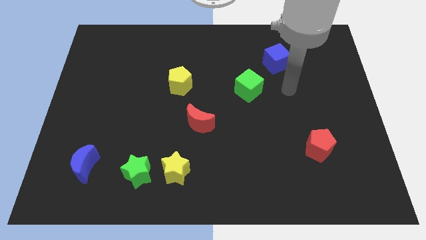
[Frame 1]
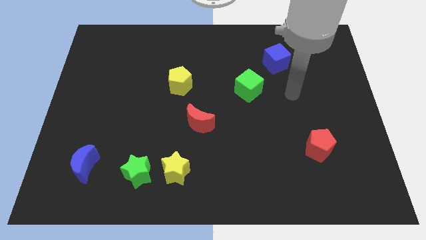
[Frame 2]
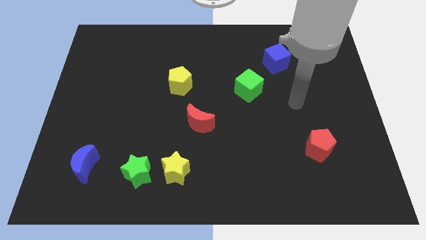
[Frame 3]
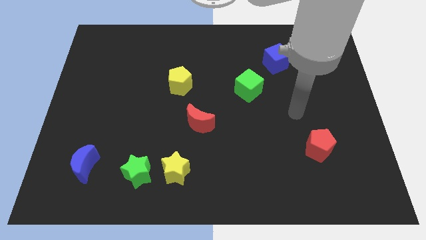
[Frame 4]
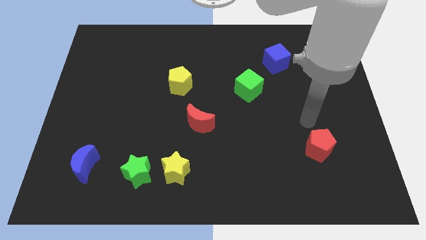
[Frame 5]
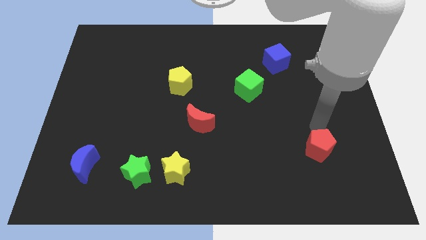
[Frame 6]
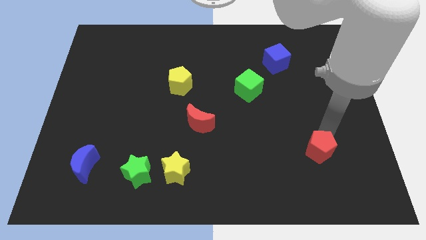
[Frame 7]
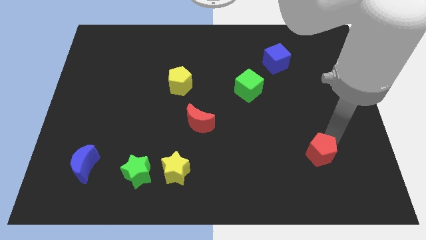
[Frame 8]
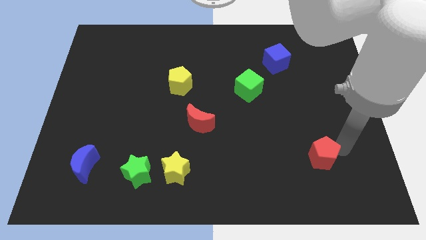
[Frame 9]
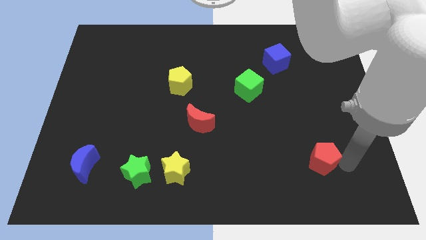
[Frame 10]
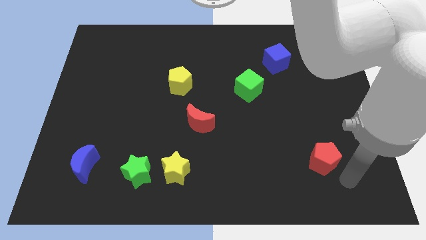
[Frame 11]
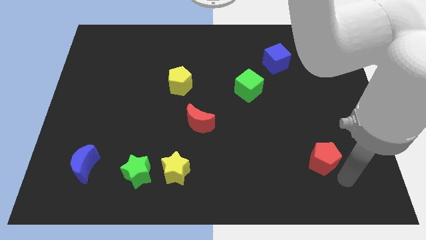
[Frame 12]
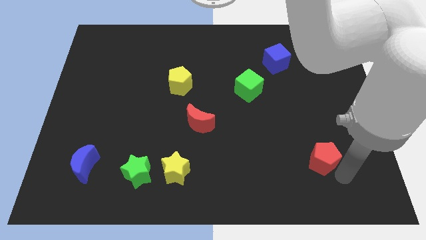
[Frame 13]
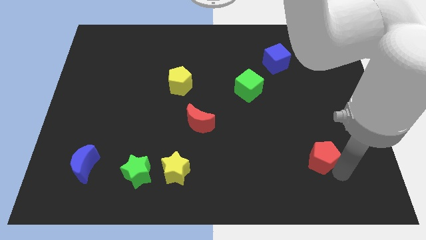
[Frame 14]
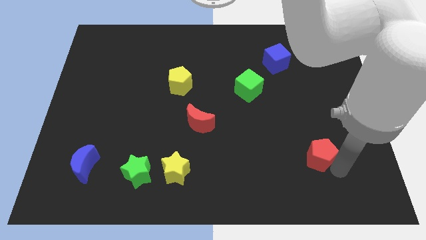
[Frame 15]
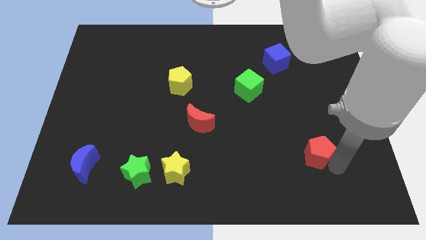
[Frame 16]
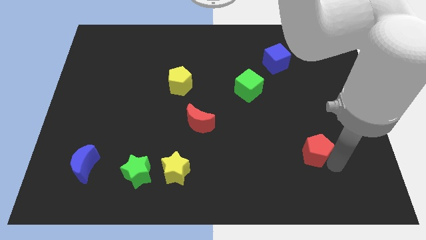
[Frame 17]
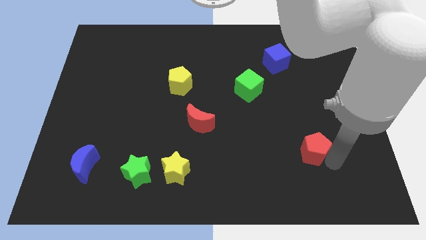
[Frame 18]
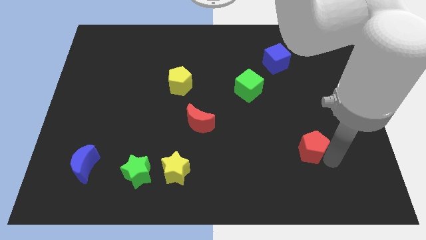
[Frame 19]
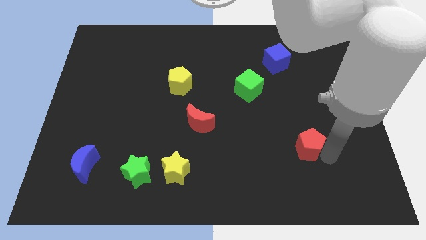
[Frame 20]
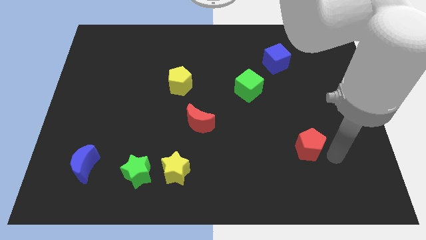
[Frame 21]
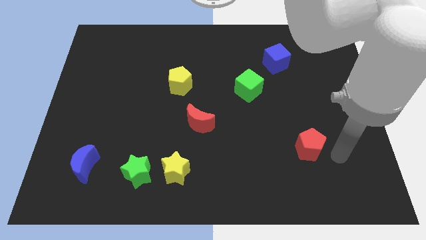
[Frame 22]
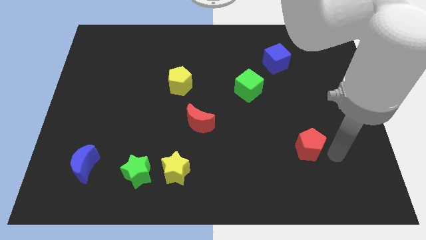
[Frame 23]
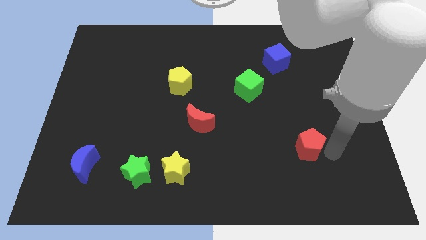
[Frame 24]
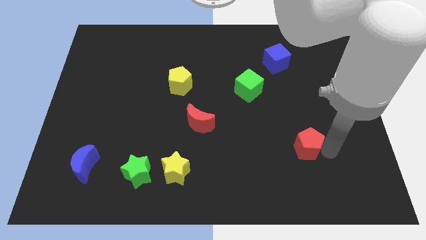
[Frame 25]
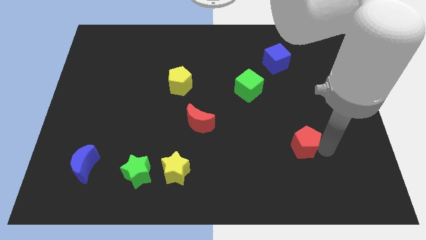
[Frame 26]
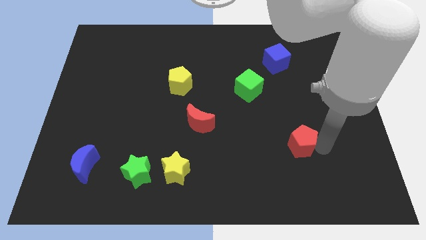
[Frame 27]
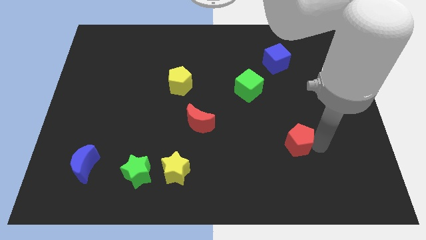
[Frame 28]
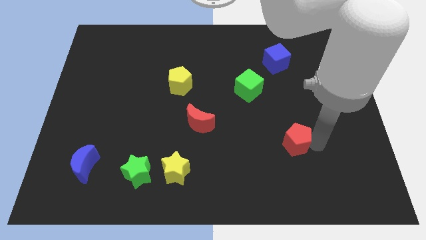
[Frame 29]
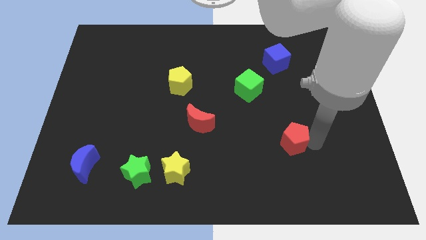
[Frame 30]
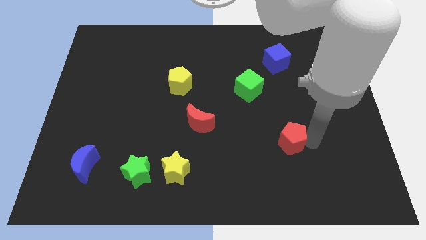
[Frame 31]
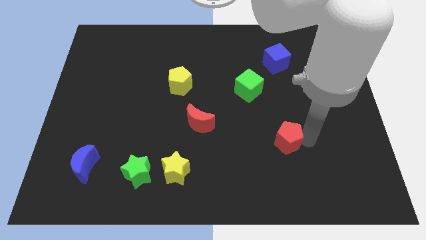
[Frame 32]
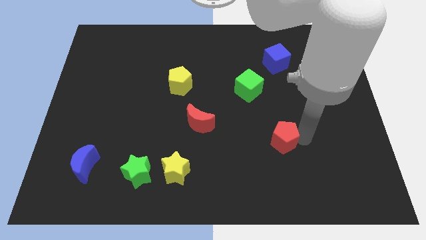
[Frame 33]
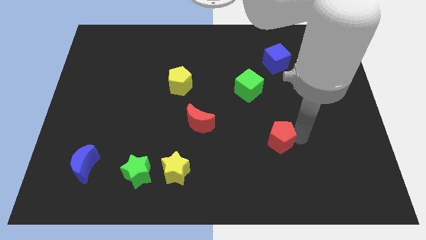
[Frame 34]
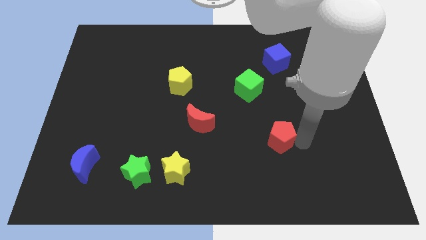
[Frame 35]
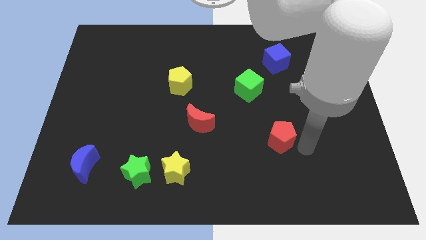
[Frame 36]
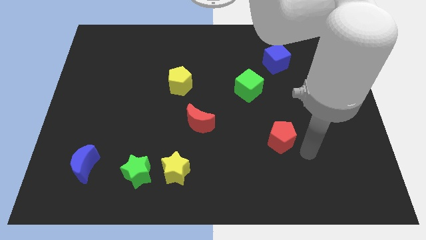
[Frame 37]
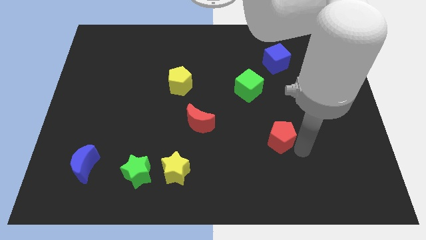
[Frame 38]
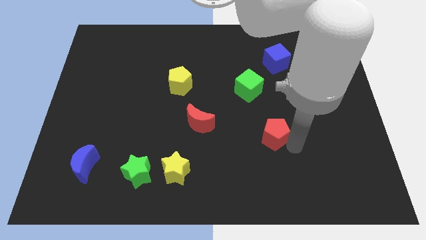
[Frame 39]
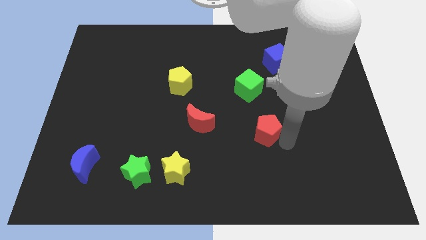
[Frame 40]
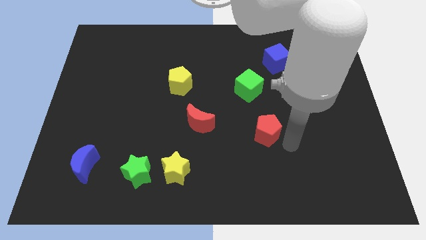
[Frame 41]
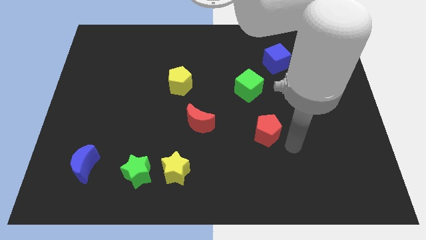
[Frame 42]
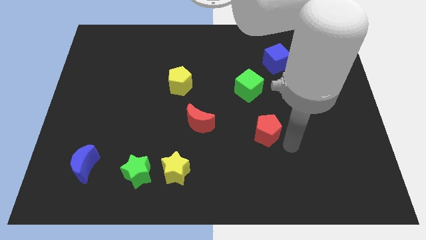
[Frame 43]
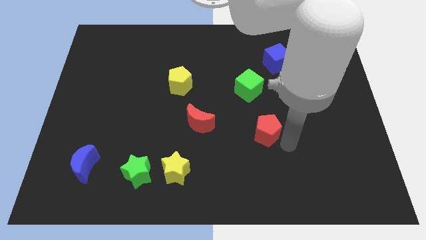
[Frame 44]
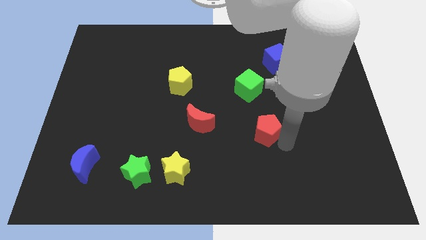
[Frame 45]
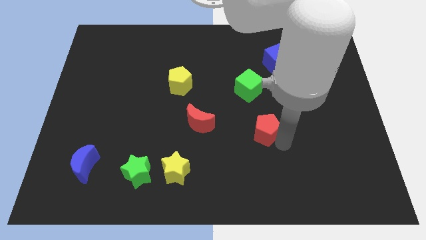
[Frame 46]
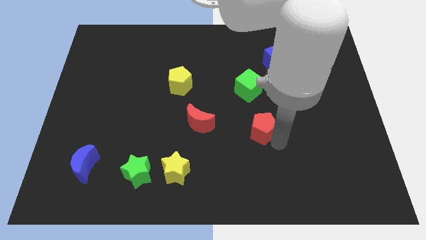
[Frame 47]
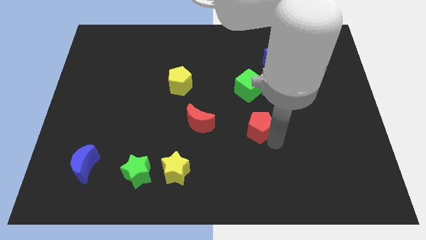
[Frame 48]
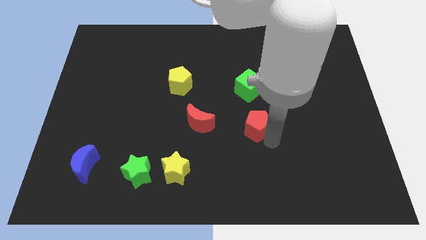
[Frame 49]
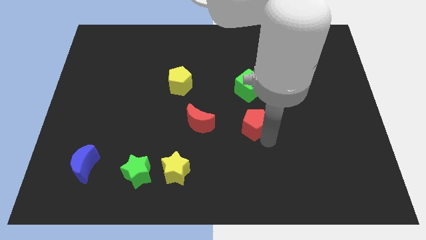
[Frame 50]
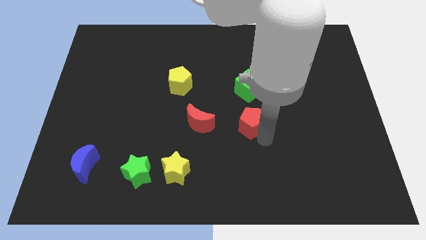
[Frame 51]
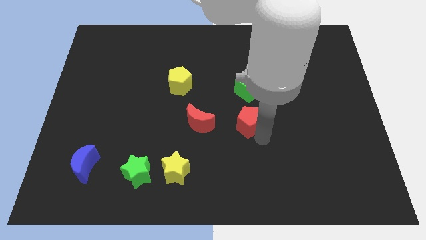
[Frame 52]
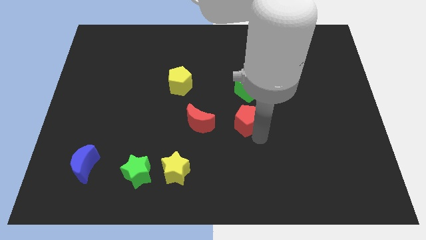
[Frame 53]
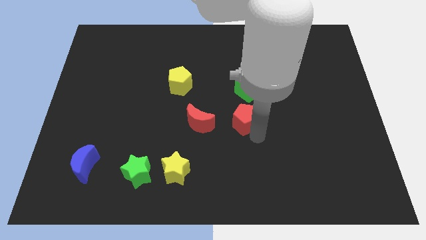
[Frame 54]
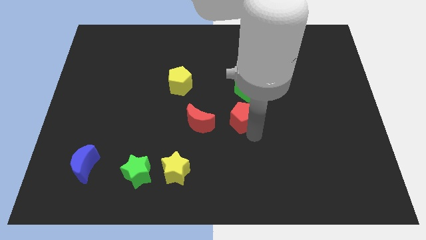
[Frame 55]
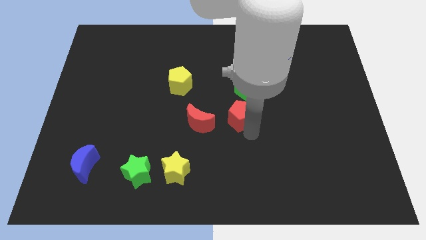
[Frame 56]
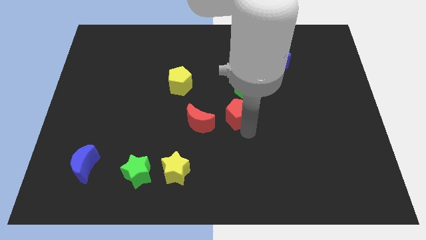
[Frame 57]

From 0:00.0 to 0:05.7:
slide the red pentagon to the top right side of the red moon

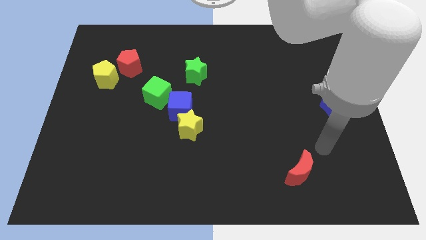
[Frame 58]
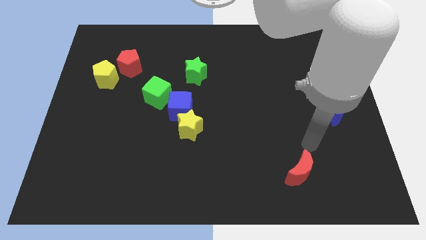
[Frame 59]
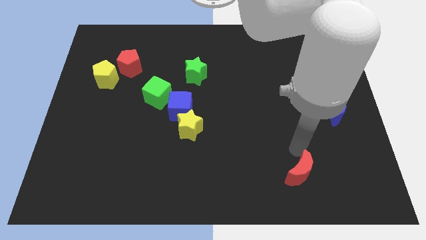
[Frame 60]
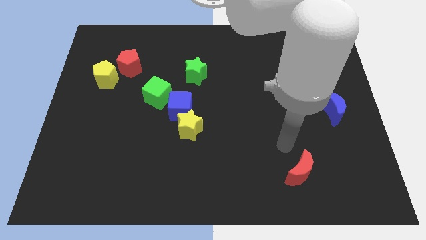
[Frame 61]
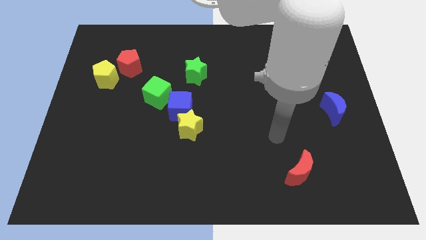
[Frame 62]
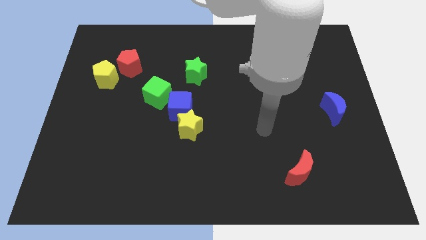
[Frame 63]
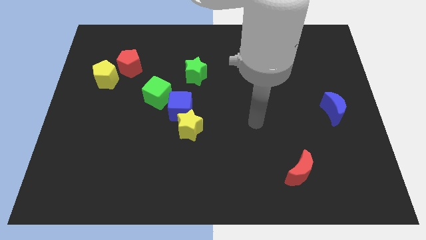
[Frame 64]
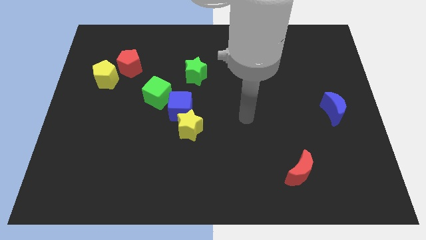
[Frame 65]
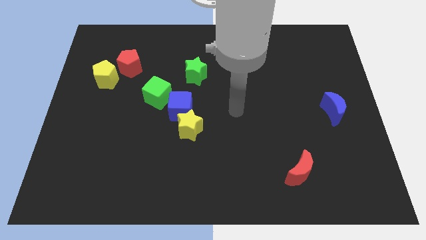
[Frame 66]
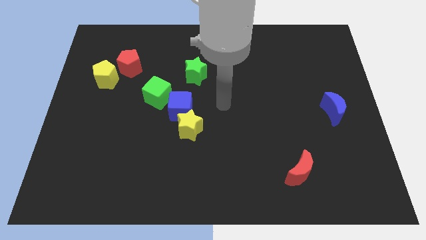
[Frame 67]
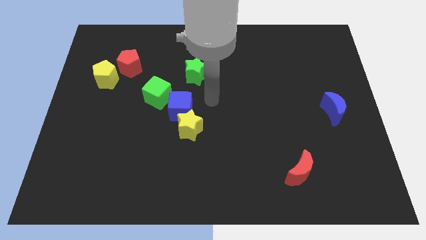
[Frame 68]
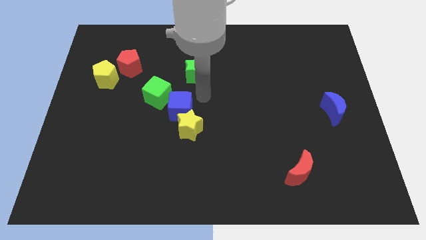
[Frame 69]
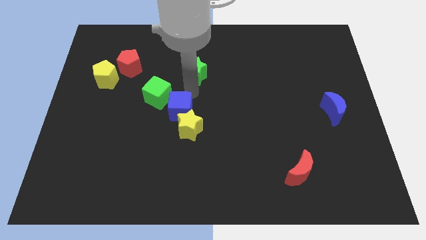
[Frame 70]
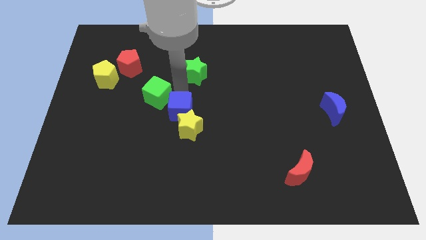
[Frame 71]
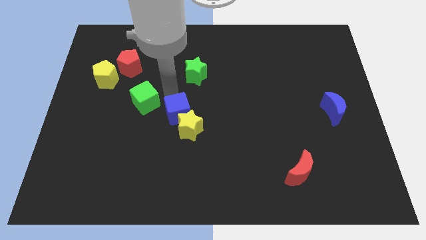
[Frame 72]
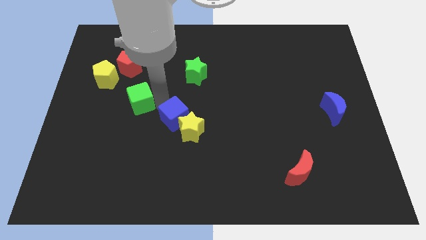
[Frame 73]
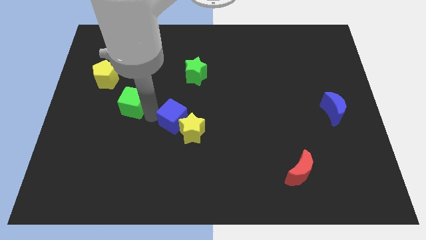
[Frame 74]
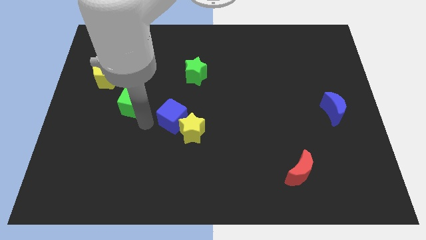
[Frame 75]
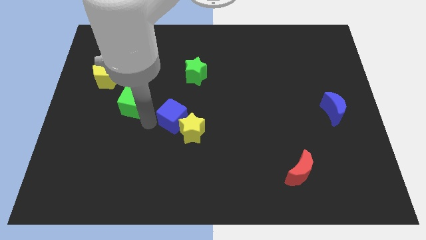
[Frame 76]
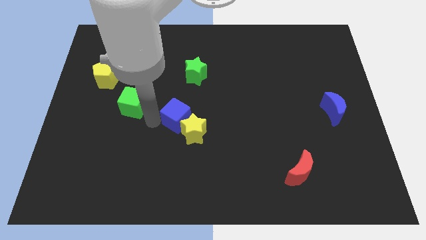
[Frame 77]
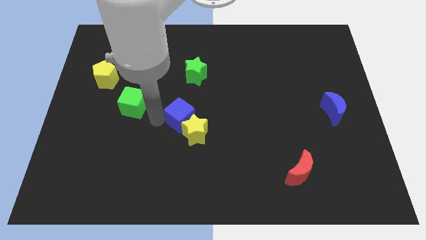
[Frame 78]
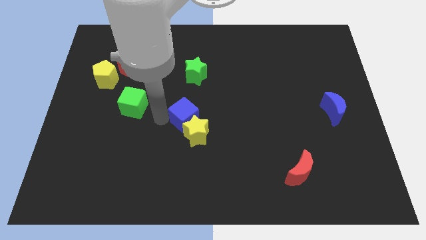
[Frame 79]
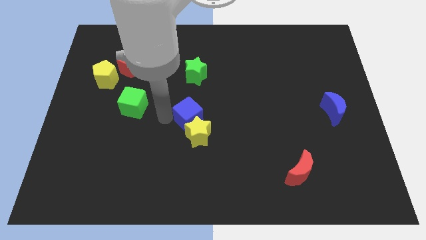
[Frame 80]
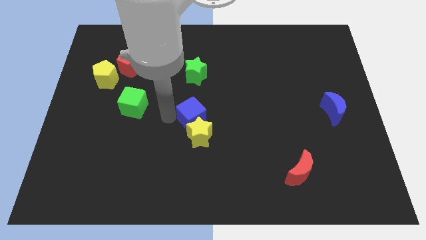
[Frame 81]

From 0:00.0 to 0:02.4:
push the blue cube to the top right side of the yellow star
